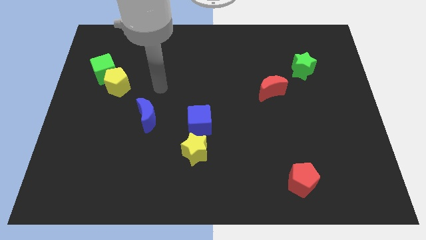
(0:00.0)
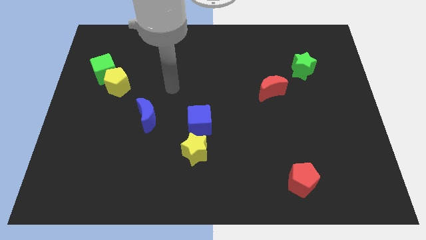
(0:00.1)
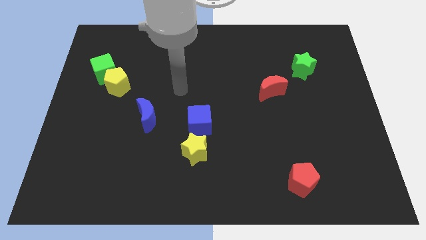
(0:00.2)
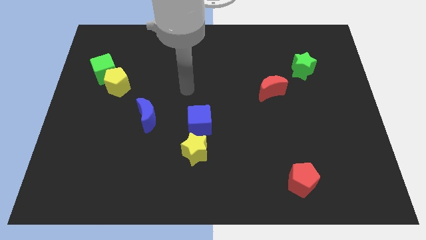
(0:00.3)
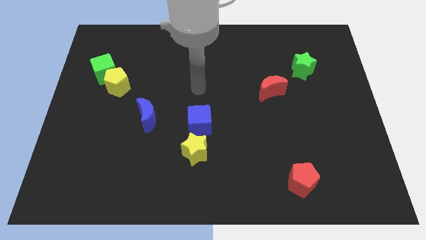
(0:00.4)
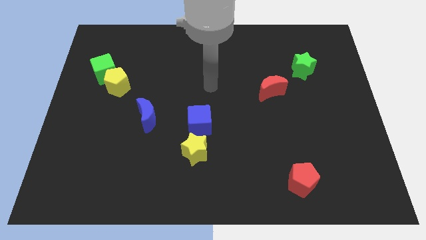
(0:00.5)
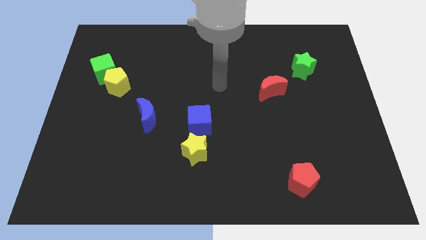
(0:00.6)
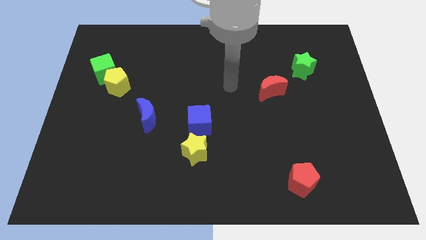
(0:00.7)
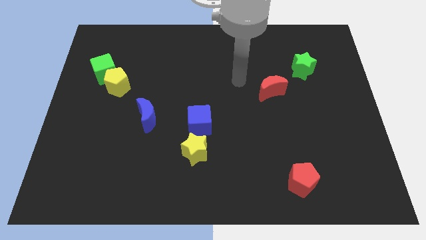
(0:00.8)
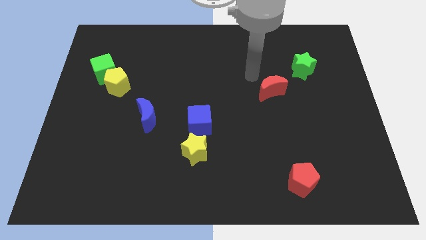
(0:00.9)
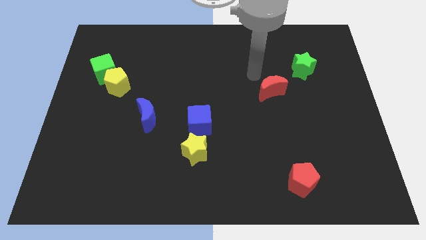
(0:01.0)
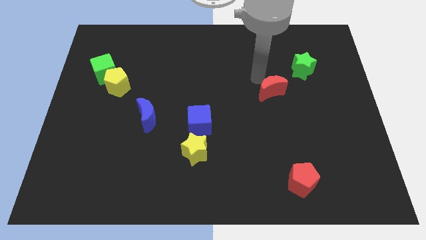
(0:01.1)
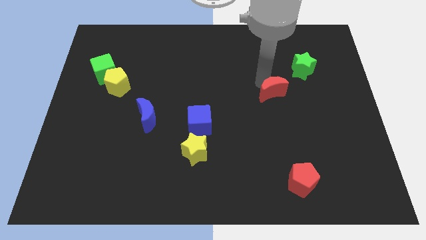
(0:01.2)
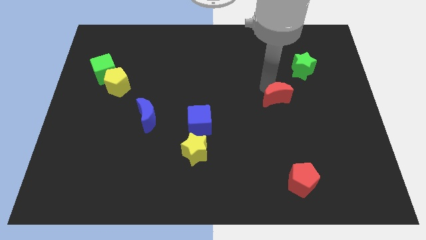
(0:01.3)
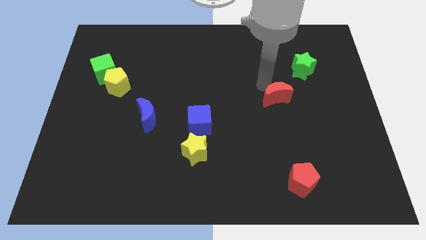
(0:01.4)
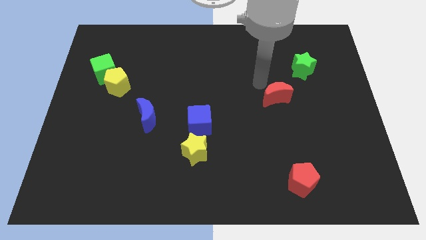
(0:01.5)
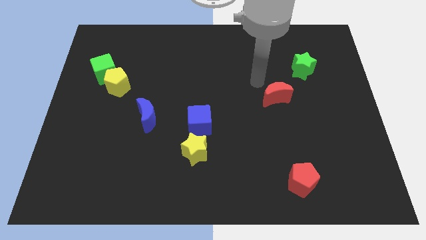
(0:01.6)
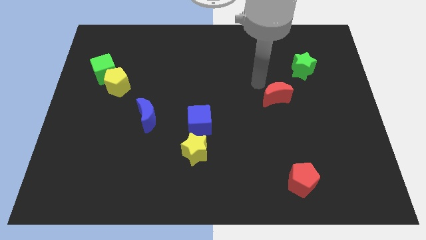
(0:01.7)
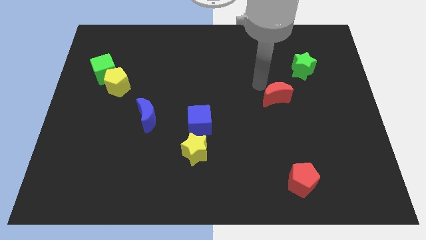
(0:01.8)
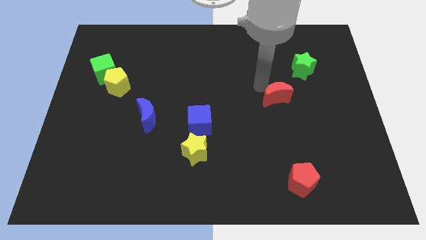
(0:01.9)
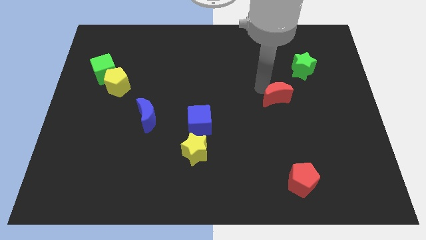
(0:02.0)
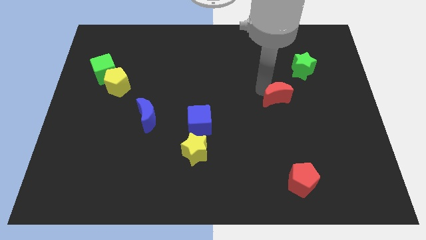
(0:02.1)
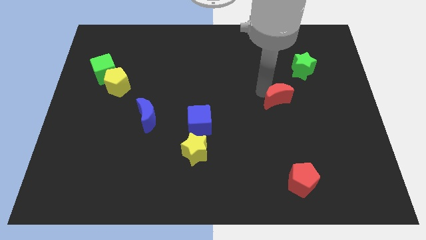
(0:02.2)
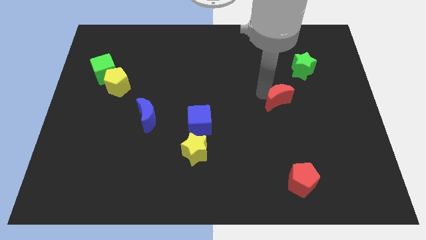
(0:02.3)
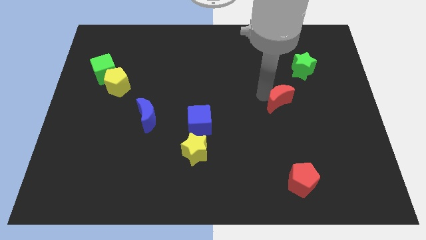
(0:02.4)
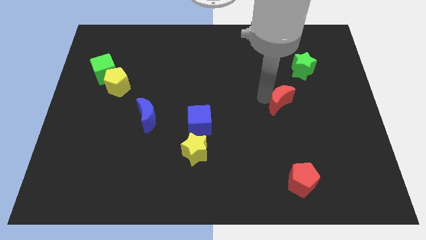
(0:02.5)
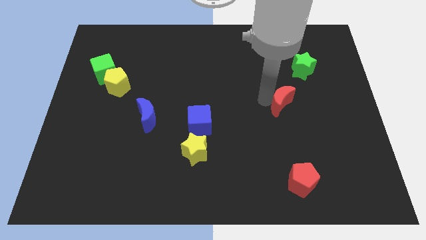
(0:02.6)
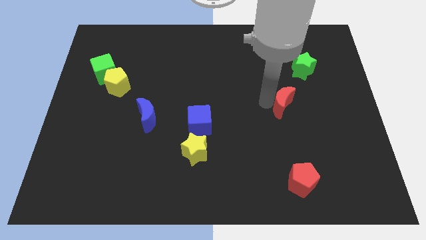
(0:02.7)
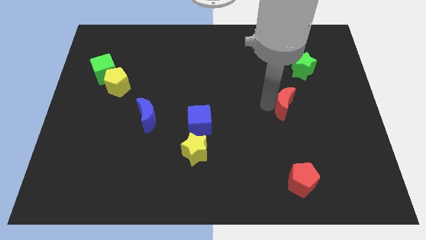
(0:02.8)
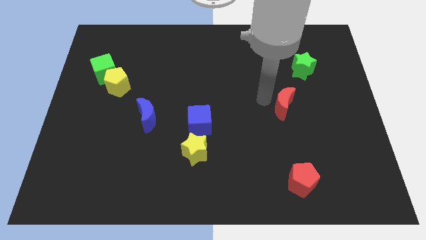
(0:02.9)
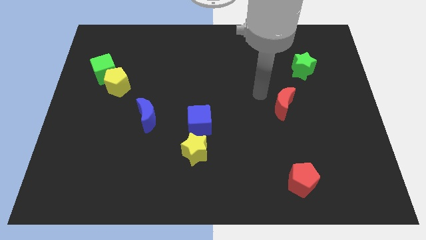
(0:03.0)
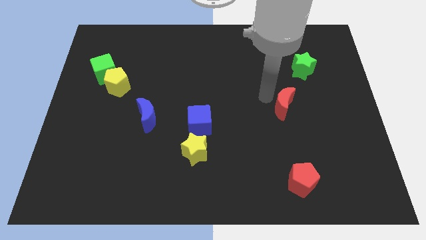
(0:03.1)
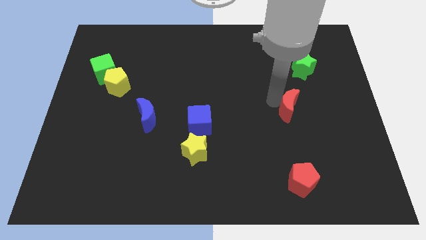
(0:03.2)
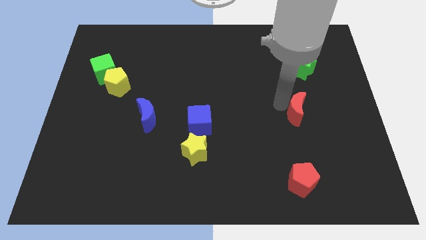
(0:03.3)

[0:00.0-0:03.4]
slide the red moon a bit down and to the right

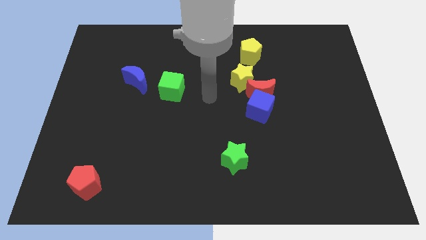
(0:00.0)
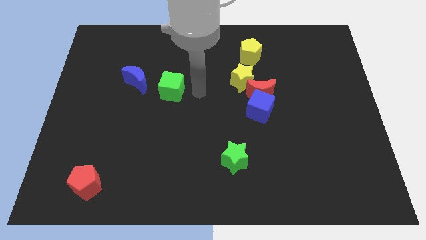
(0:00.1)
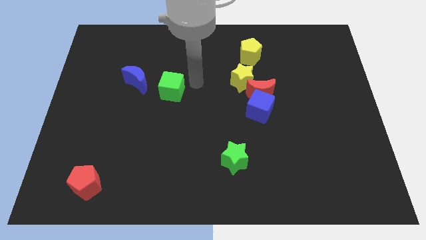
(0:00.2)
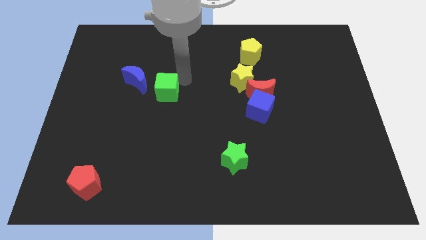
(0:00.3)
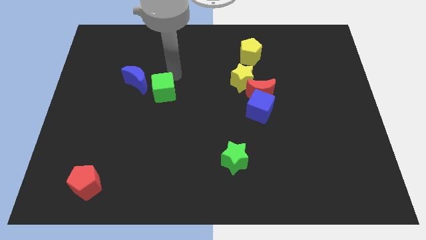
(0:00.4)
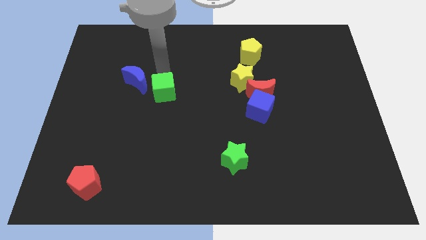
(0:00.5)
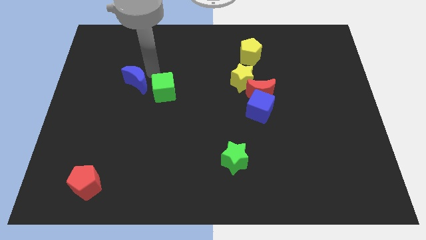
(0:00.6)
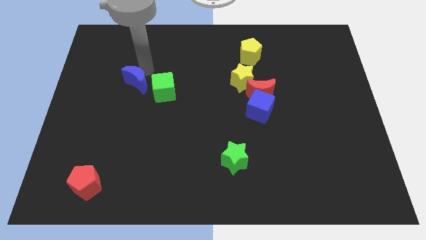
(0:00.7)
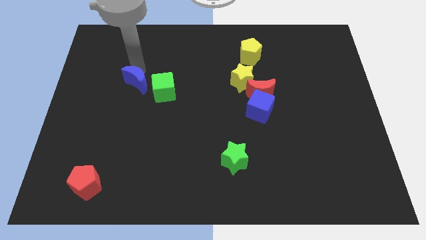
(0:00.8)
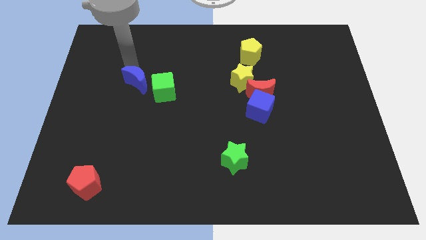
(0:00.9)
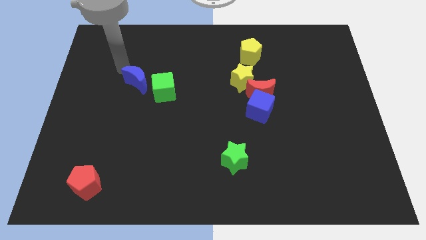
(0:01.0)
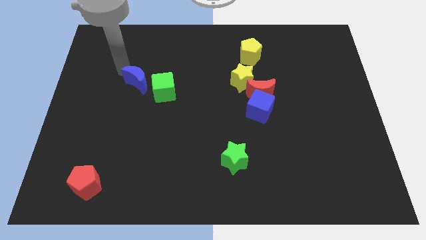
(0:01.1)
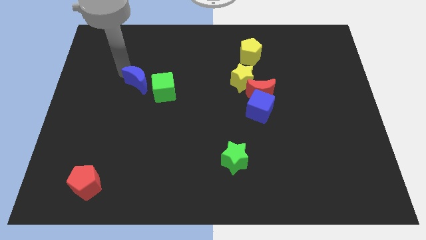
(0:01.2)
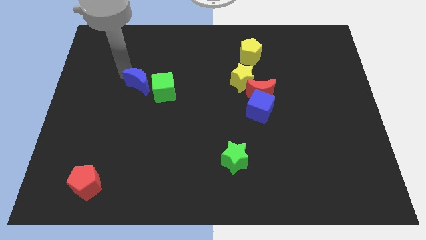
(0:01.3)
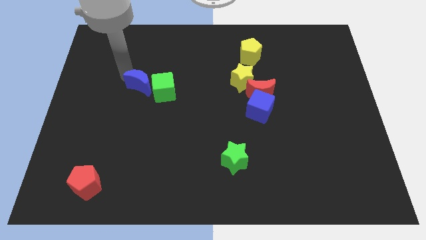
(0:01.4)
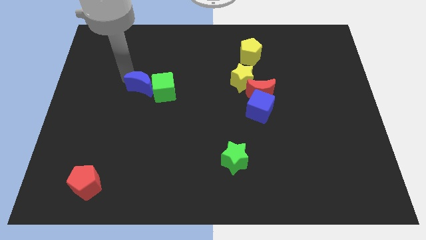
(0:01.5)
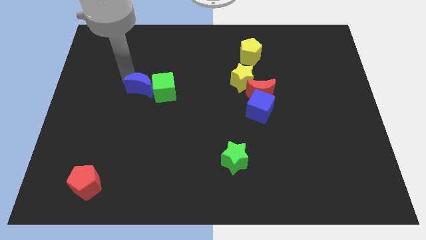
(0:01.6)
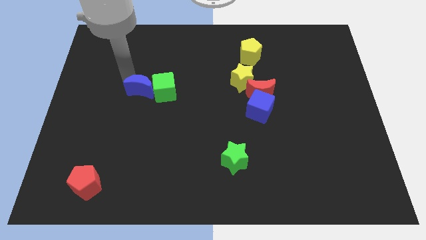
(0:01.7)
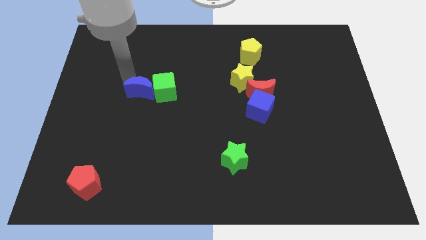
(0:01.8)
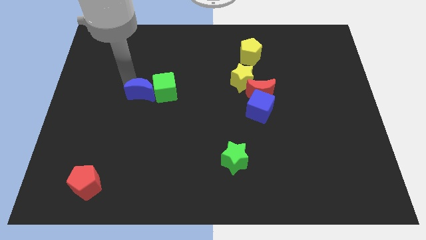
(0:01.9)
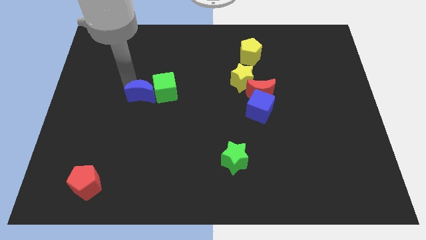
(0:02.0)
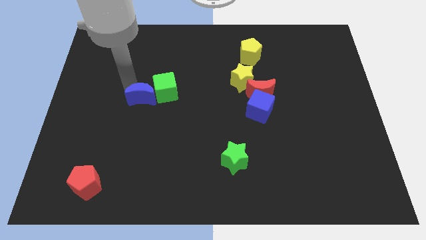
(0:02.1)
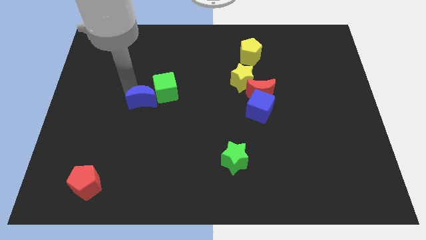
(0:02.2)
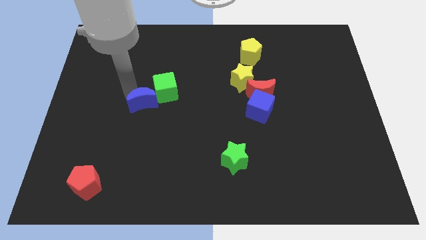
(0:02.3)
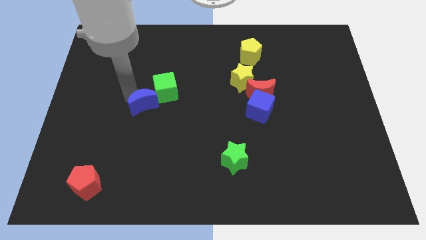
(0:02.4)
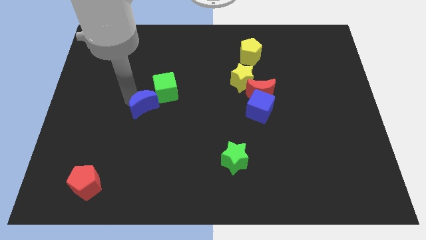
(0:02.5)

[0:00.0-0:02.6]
move the blue moon slightly diagonally downwards and to the right

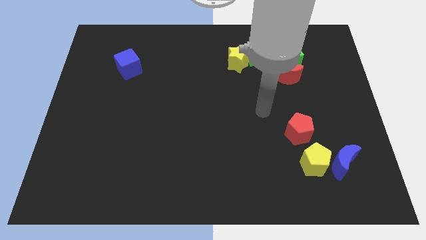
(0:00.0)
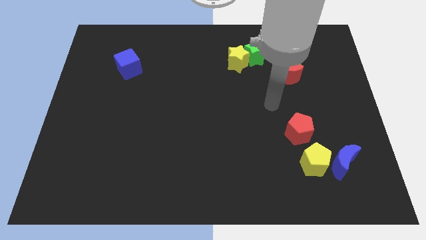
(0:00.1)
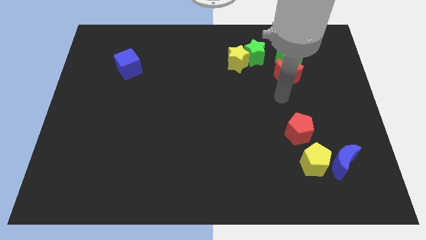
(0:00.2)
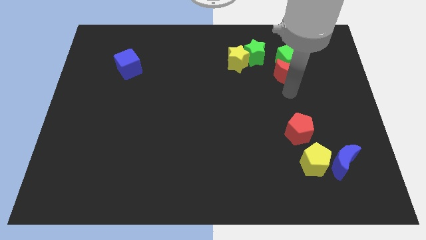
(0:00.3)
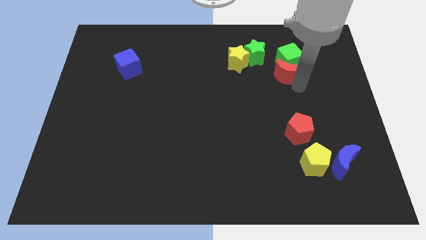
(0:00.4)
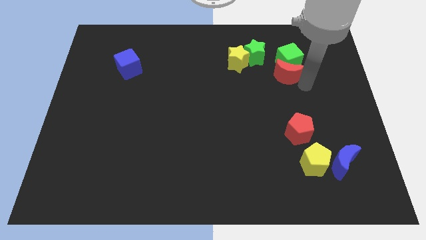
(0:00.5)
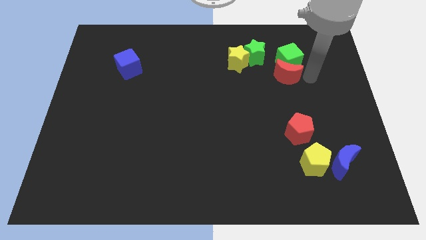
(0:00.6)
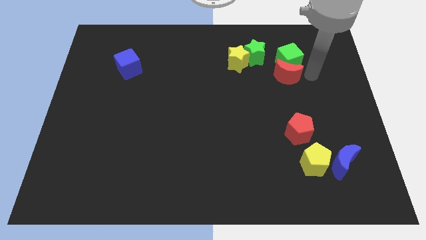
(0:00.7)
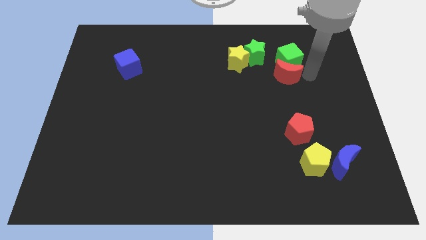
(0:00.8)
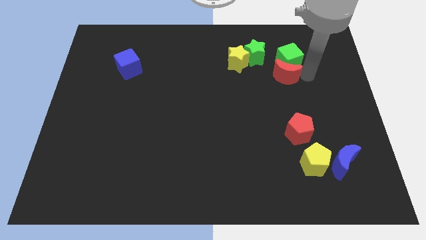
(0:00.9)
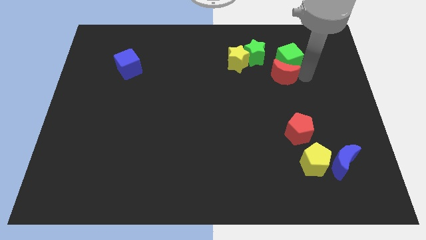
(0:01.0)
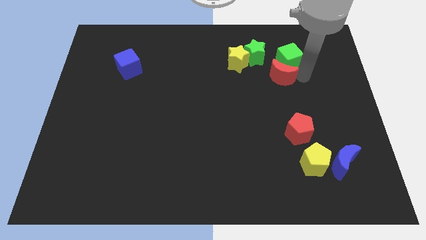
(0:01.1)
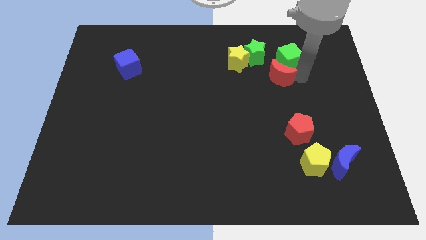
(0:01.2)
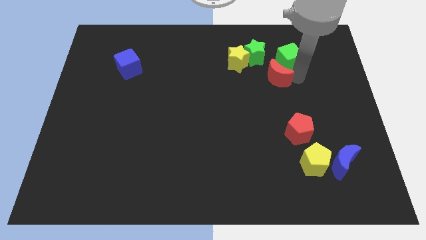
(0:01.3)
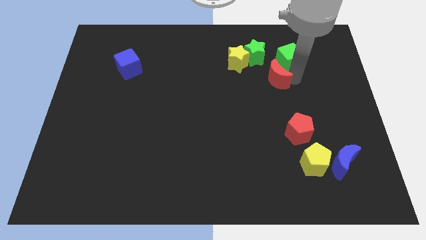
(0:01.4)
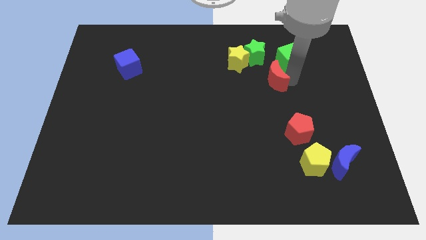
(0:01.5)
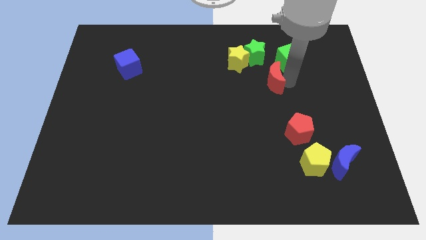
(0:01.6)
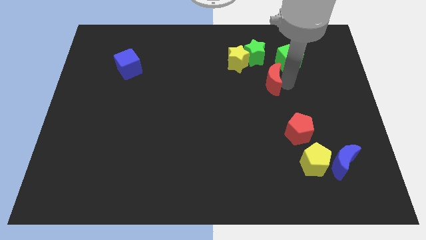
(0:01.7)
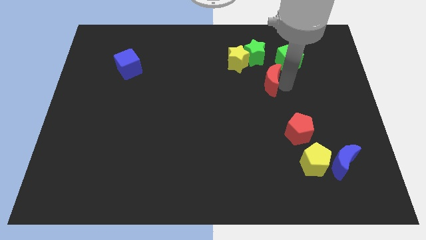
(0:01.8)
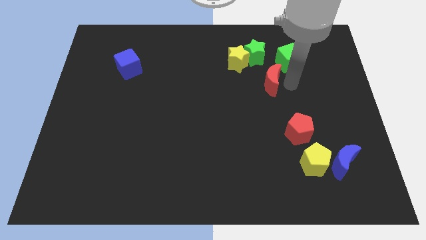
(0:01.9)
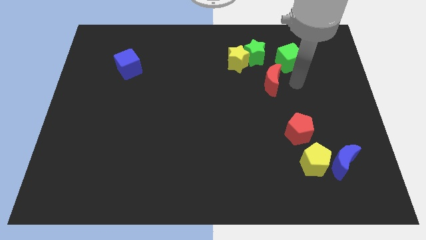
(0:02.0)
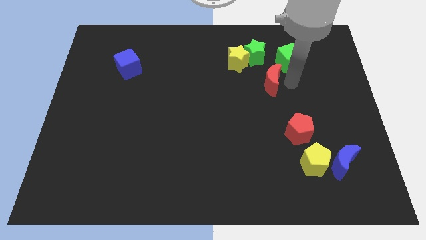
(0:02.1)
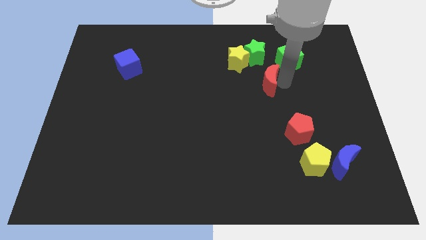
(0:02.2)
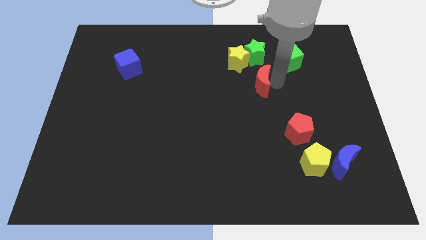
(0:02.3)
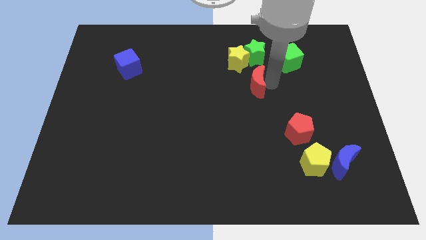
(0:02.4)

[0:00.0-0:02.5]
slightly push the red moon left

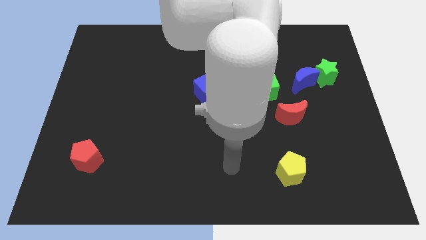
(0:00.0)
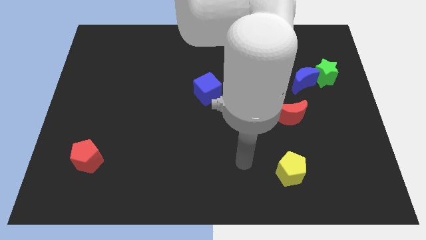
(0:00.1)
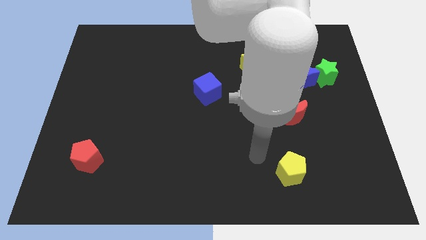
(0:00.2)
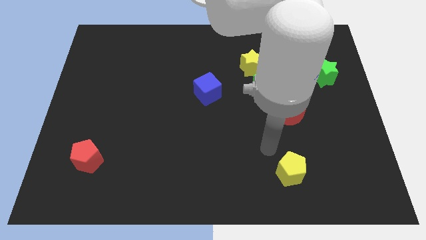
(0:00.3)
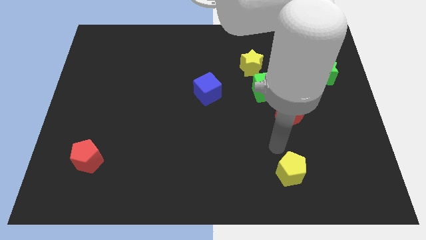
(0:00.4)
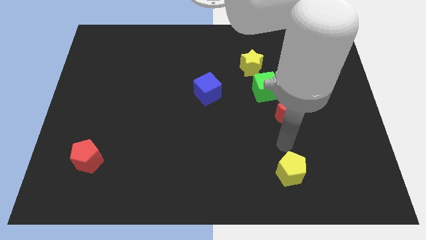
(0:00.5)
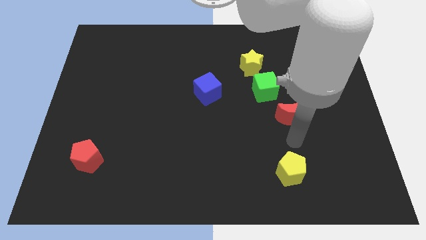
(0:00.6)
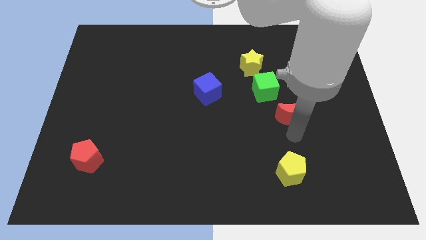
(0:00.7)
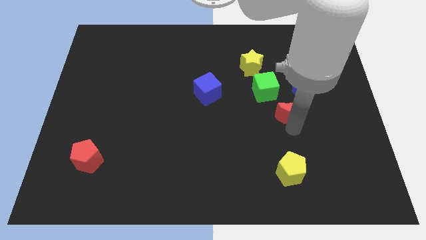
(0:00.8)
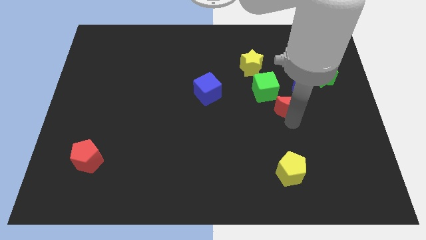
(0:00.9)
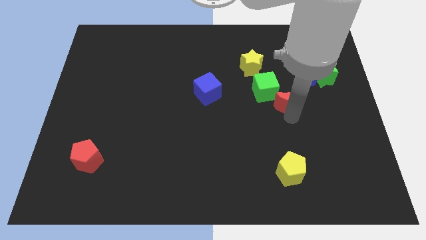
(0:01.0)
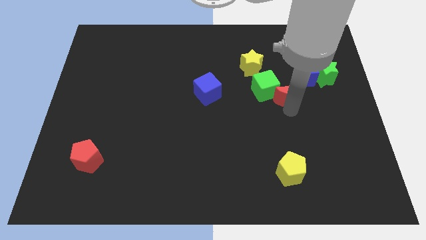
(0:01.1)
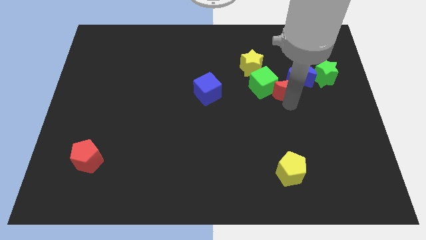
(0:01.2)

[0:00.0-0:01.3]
slightly slide the red moon upwards
